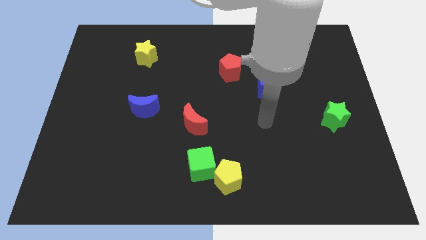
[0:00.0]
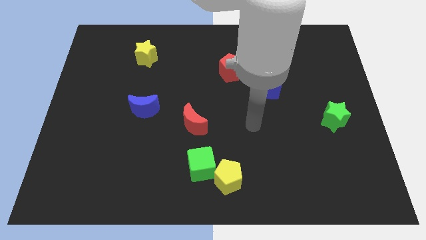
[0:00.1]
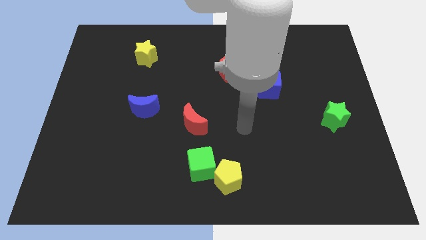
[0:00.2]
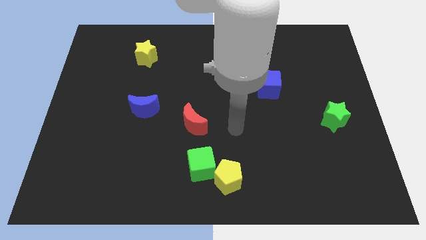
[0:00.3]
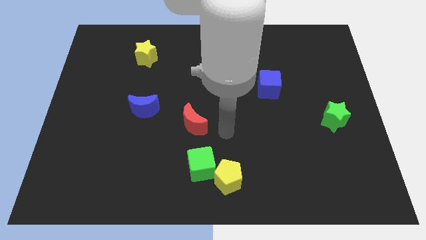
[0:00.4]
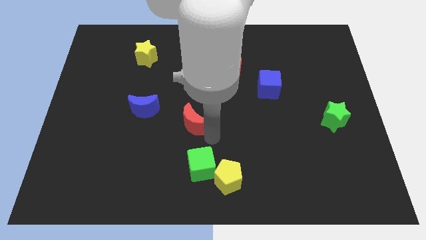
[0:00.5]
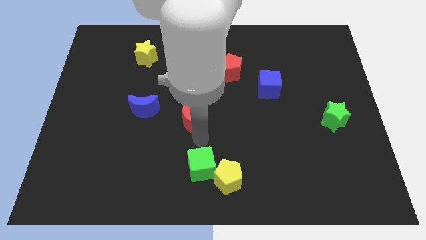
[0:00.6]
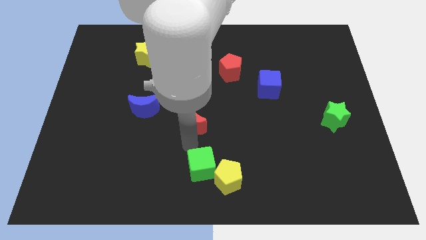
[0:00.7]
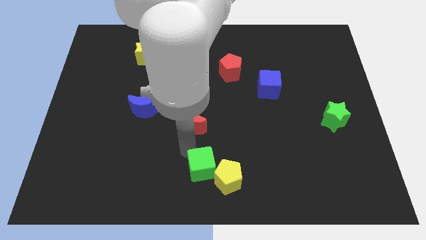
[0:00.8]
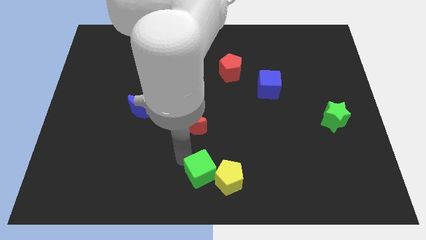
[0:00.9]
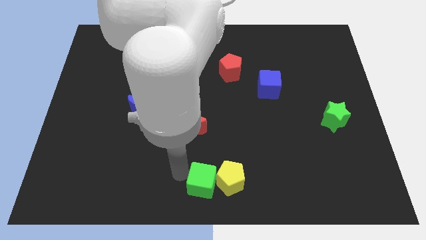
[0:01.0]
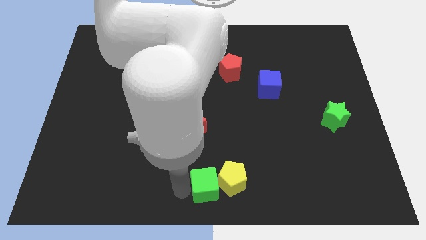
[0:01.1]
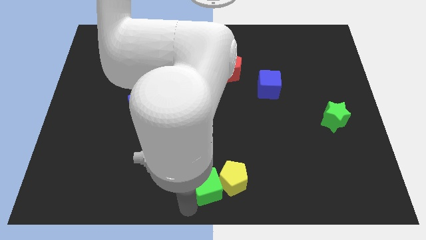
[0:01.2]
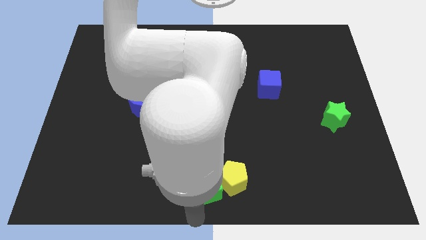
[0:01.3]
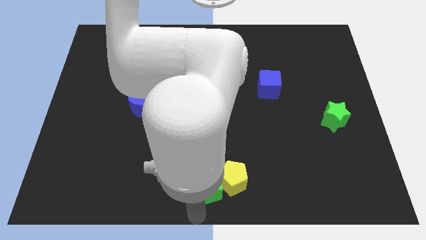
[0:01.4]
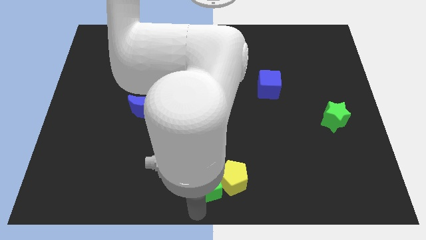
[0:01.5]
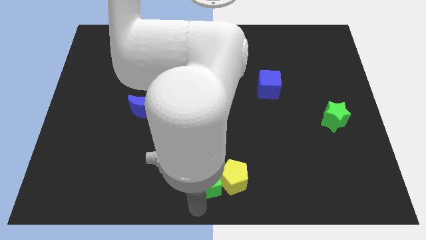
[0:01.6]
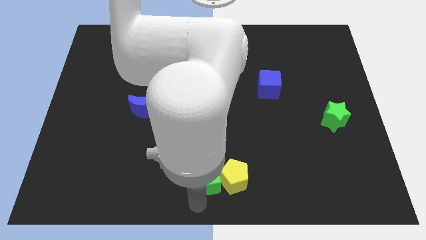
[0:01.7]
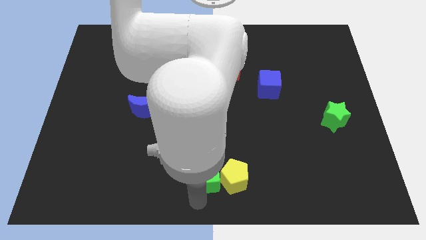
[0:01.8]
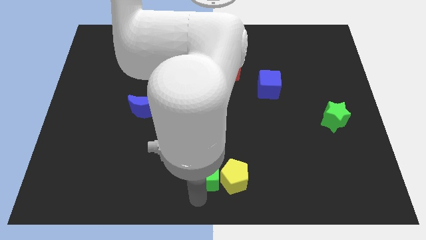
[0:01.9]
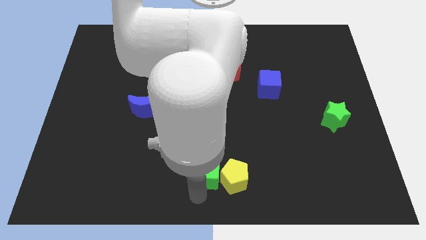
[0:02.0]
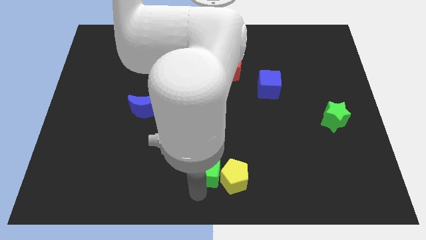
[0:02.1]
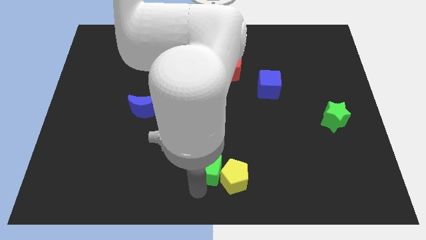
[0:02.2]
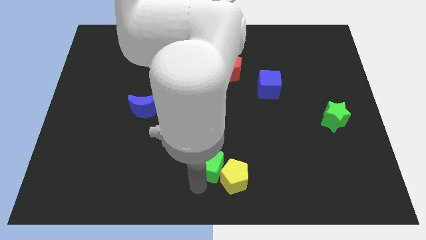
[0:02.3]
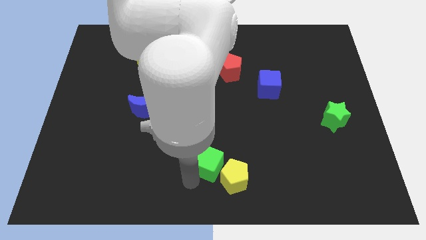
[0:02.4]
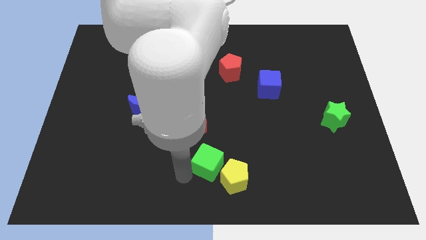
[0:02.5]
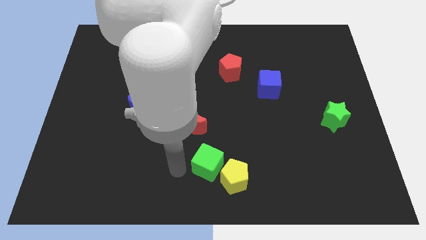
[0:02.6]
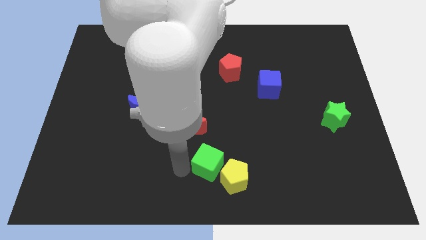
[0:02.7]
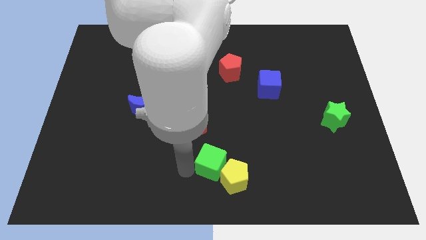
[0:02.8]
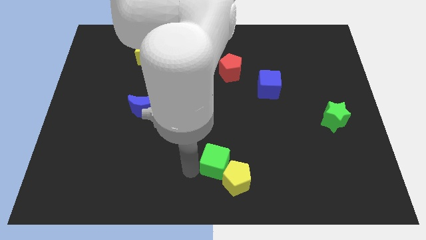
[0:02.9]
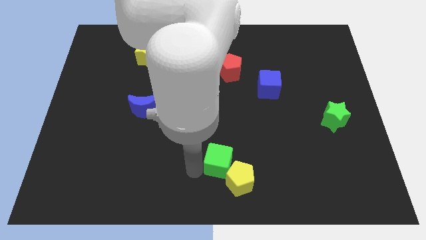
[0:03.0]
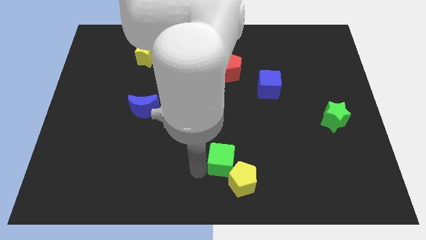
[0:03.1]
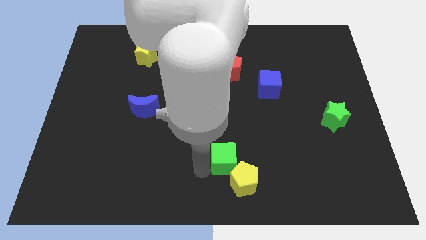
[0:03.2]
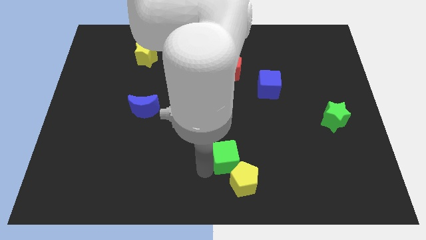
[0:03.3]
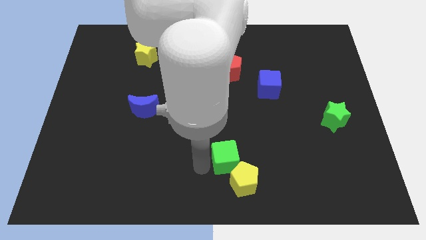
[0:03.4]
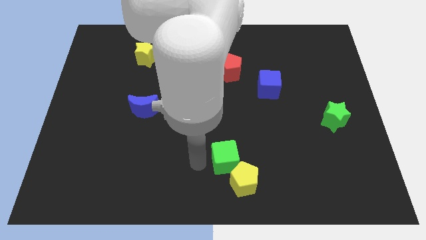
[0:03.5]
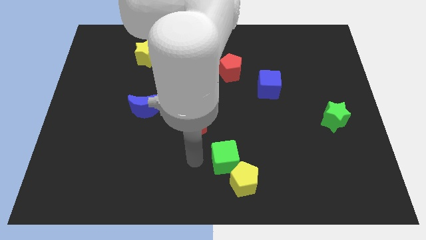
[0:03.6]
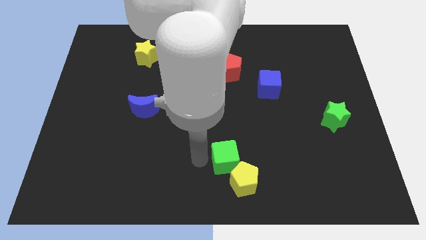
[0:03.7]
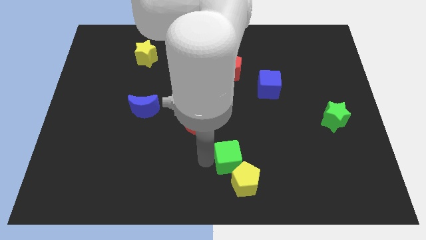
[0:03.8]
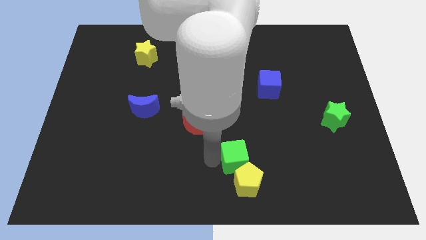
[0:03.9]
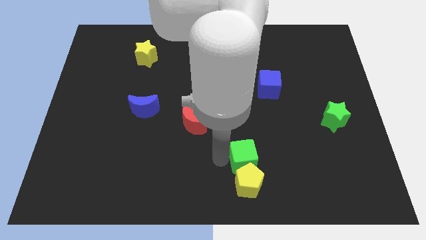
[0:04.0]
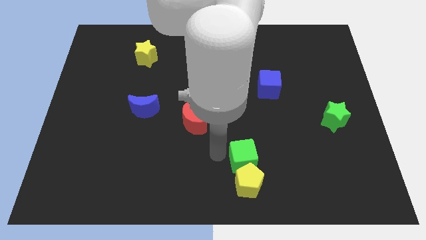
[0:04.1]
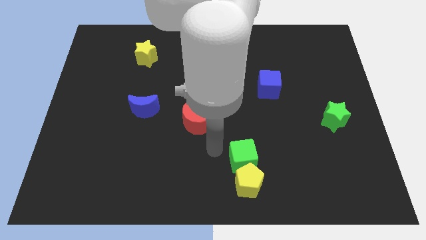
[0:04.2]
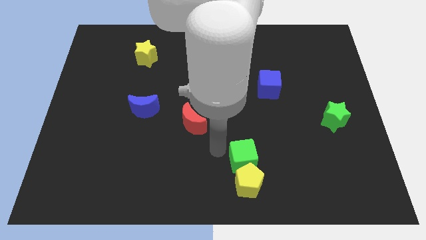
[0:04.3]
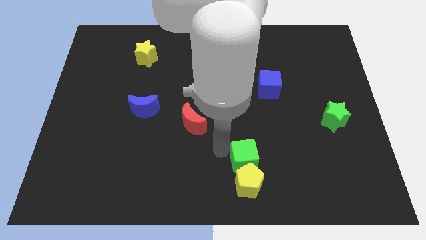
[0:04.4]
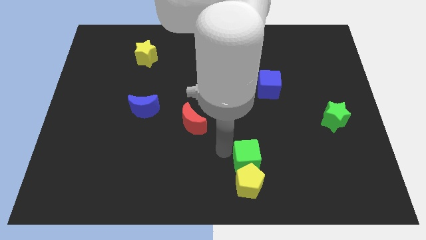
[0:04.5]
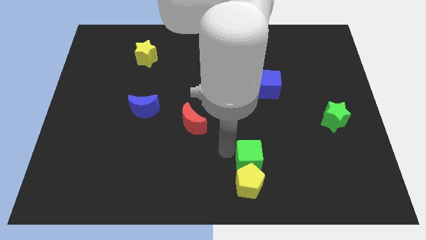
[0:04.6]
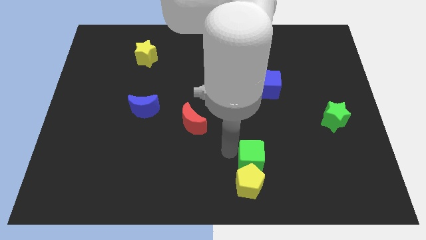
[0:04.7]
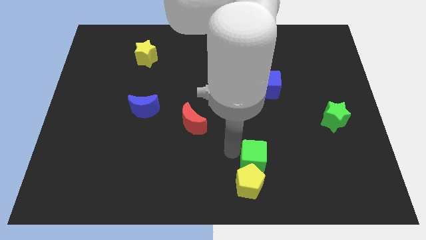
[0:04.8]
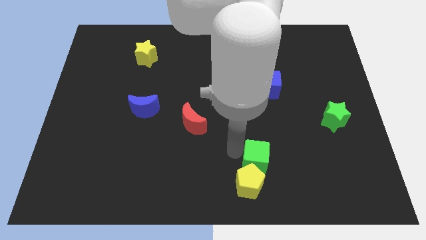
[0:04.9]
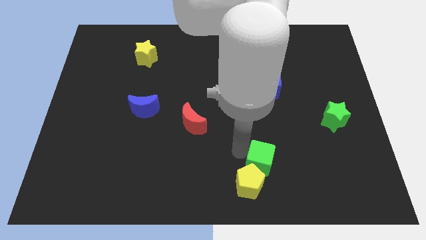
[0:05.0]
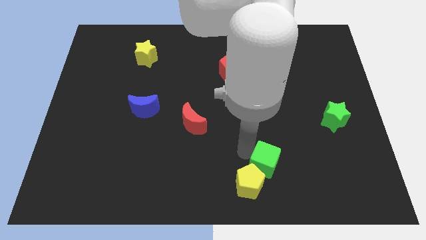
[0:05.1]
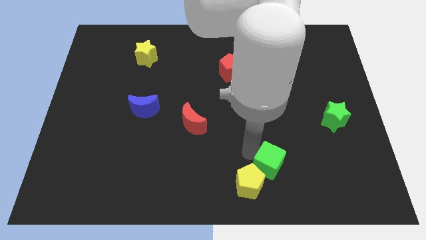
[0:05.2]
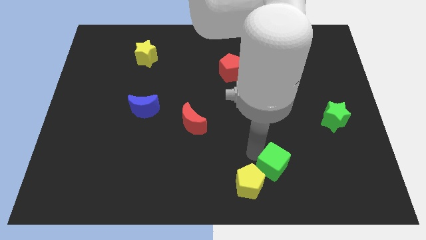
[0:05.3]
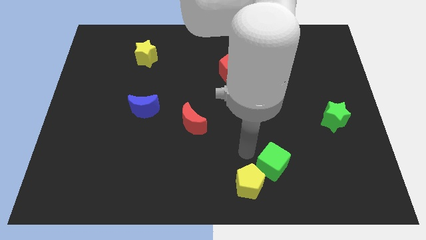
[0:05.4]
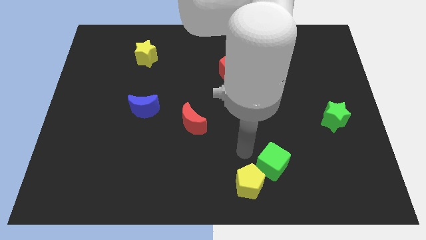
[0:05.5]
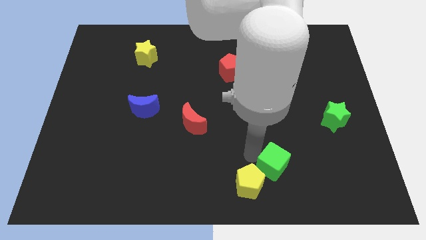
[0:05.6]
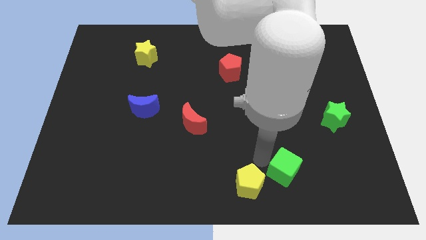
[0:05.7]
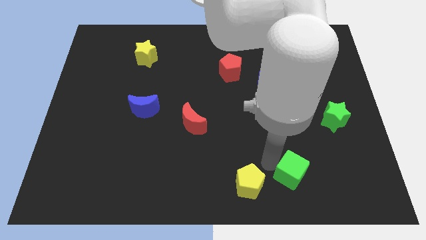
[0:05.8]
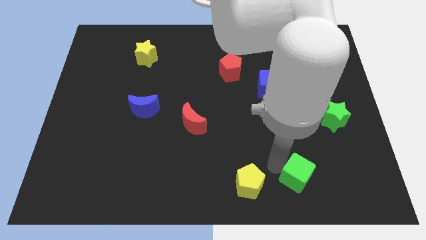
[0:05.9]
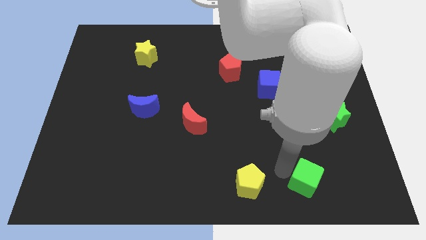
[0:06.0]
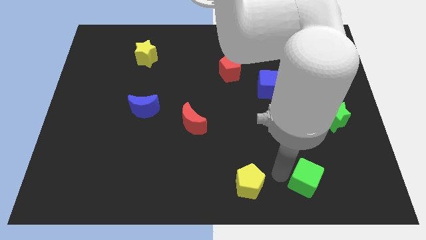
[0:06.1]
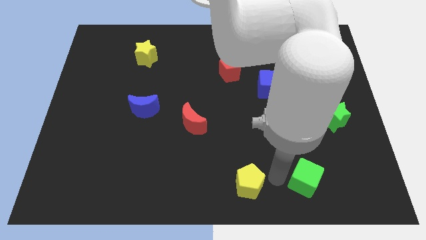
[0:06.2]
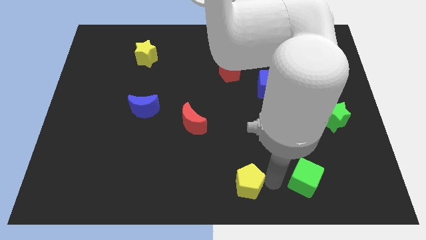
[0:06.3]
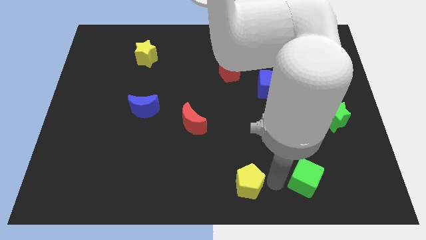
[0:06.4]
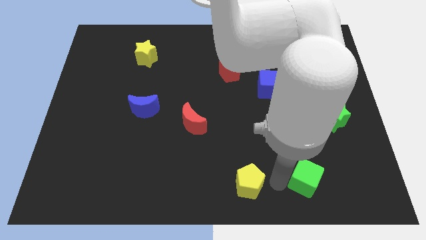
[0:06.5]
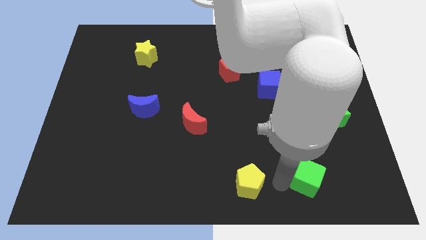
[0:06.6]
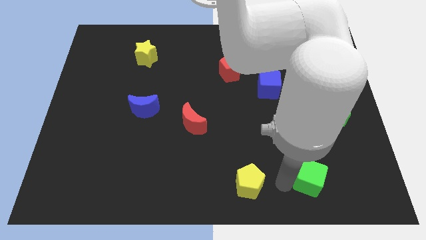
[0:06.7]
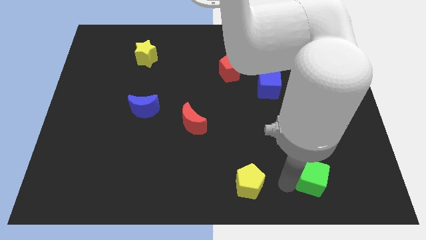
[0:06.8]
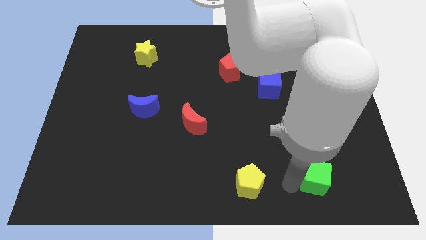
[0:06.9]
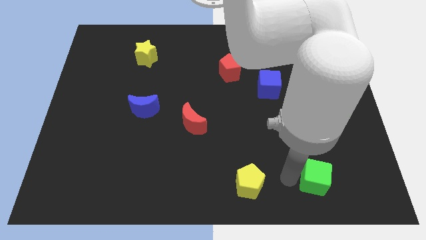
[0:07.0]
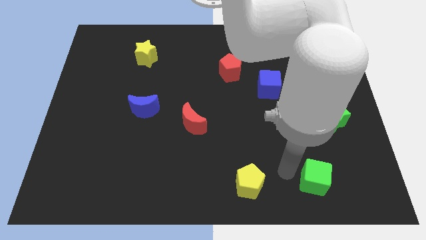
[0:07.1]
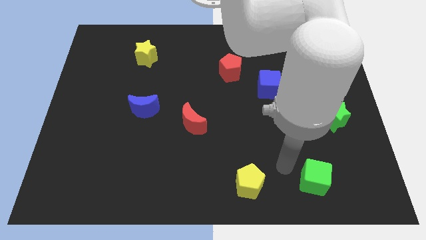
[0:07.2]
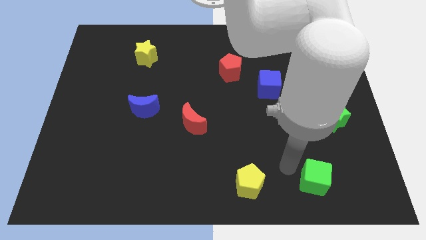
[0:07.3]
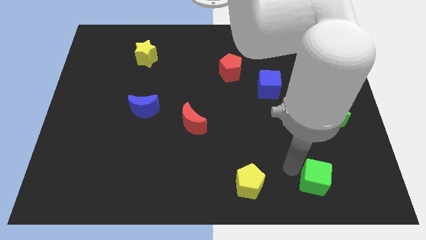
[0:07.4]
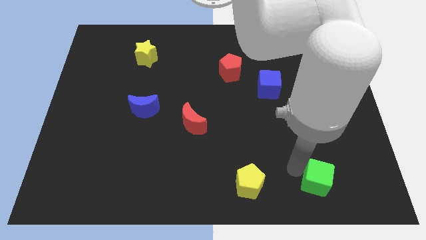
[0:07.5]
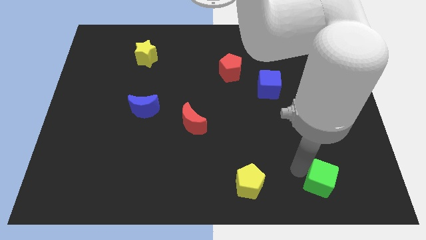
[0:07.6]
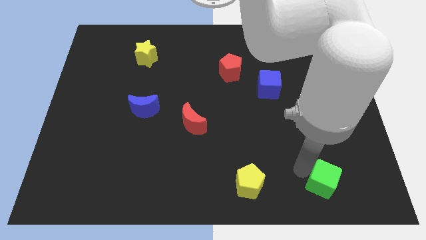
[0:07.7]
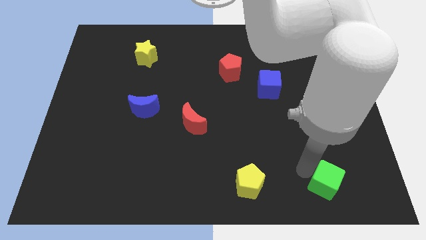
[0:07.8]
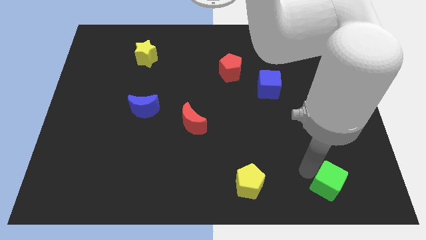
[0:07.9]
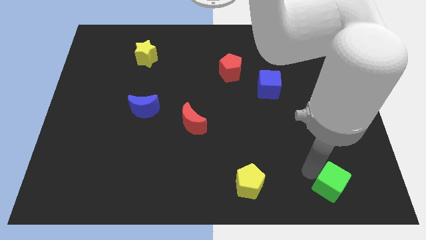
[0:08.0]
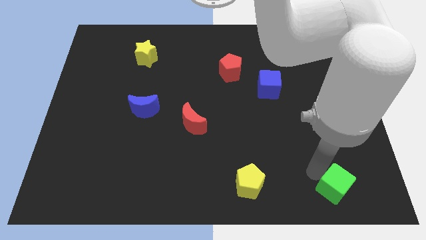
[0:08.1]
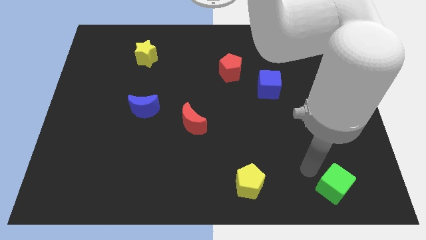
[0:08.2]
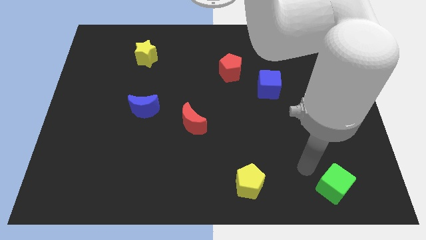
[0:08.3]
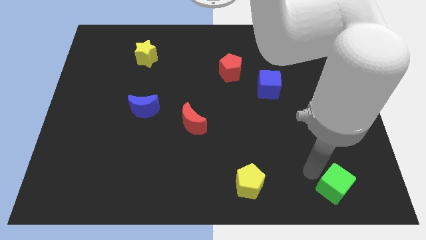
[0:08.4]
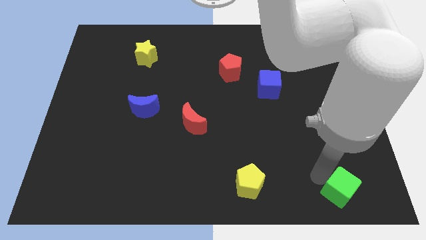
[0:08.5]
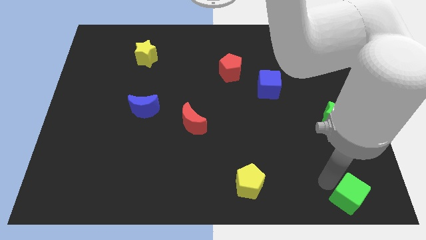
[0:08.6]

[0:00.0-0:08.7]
move the green cube to the bottom right
